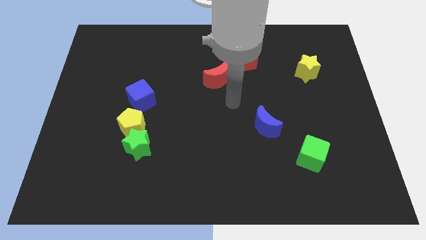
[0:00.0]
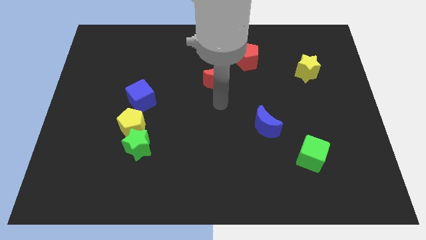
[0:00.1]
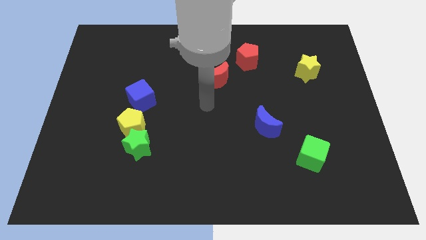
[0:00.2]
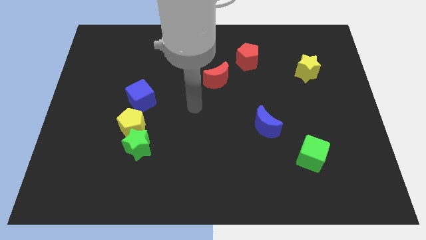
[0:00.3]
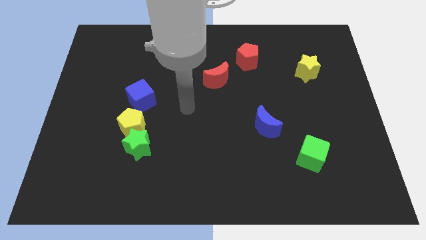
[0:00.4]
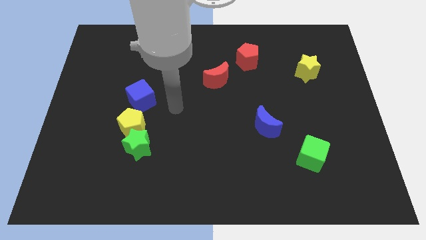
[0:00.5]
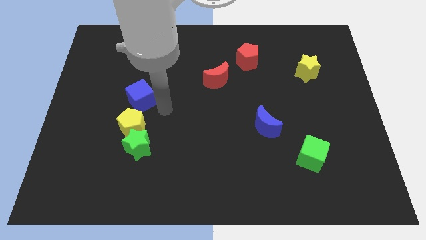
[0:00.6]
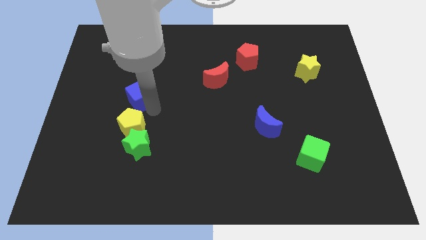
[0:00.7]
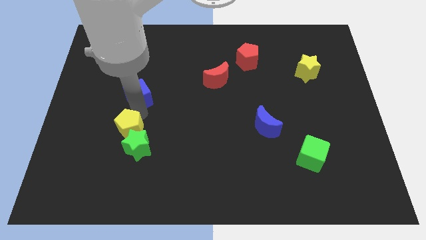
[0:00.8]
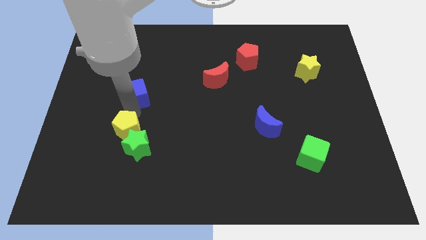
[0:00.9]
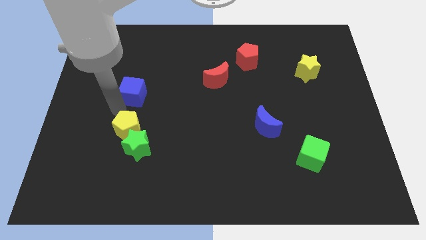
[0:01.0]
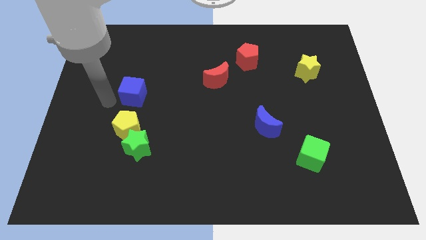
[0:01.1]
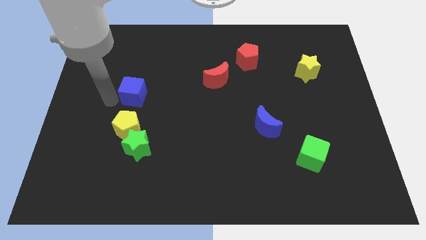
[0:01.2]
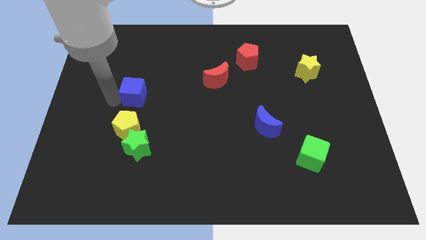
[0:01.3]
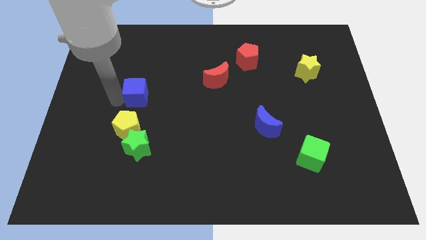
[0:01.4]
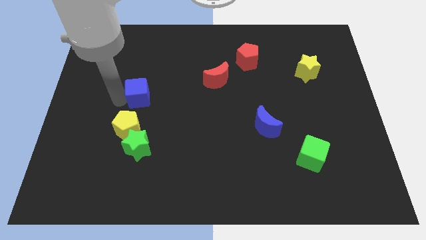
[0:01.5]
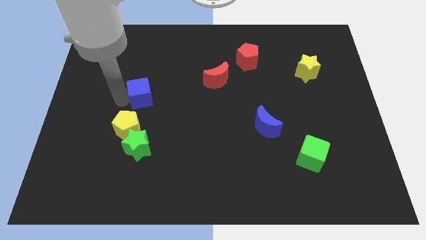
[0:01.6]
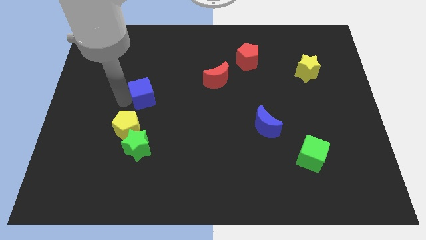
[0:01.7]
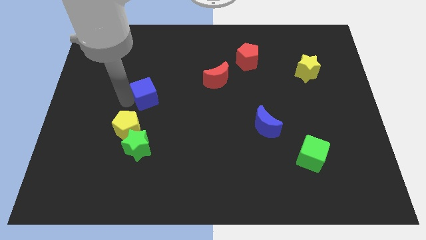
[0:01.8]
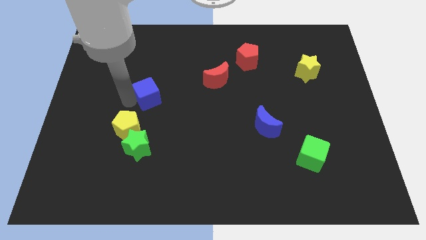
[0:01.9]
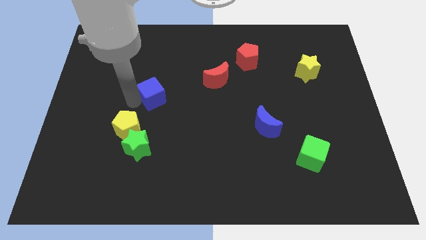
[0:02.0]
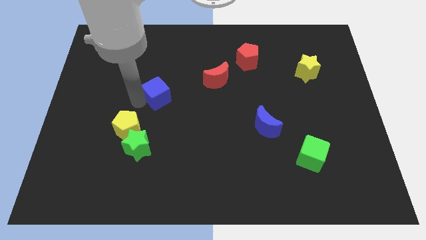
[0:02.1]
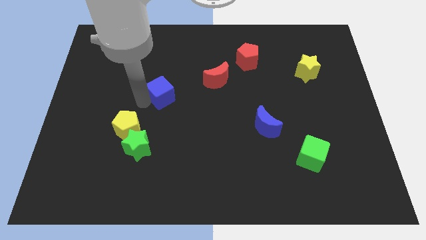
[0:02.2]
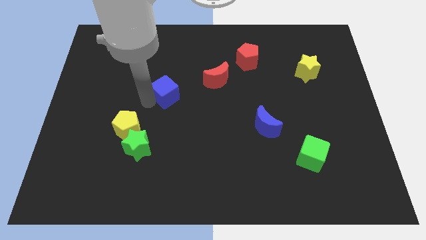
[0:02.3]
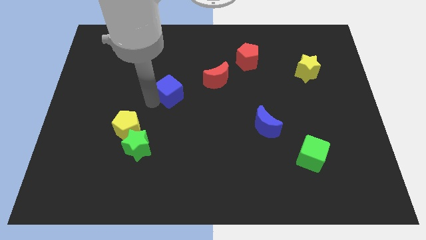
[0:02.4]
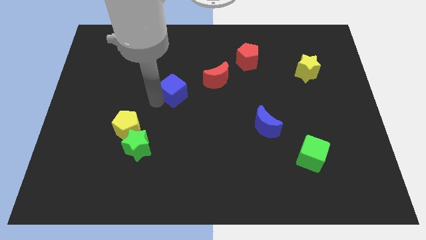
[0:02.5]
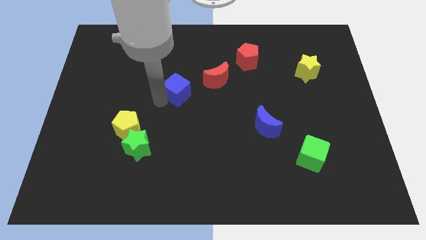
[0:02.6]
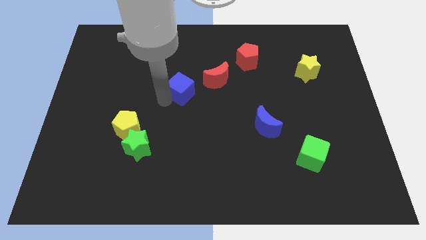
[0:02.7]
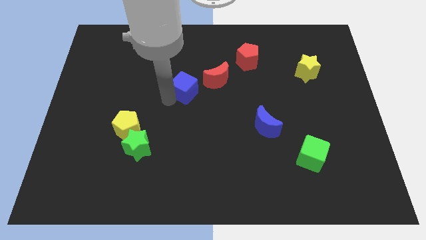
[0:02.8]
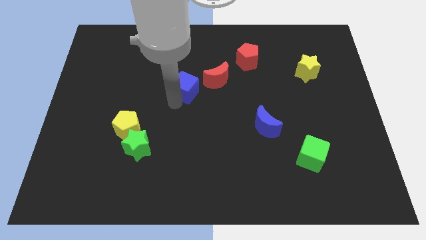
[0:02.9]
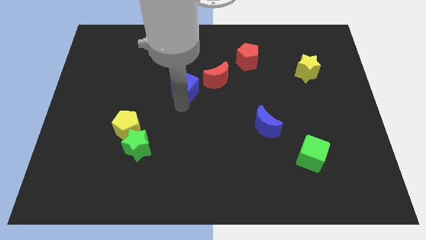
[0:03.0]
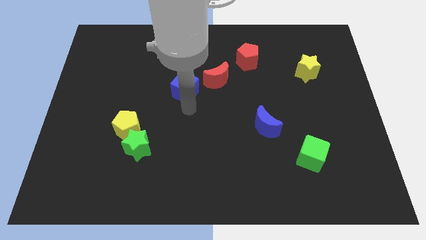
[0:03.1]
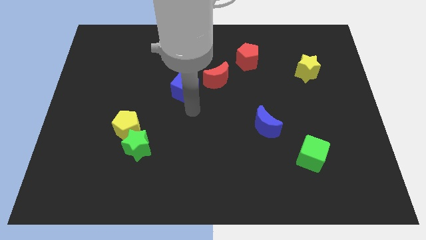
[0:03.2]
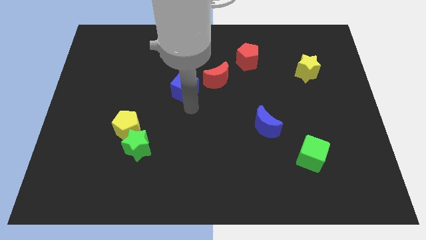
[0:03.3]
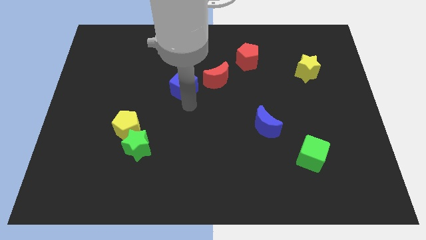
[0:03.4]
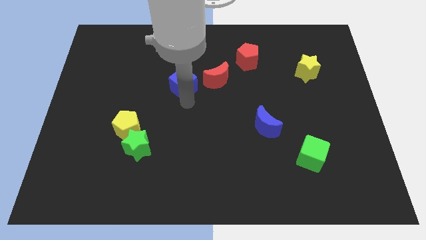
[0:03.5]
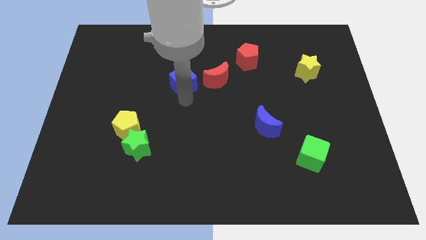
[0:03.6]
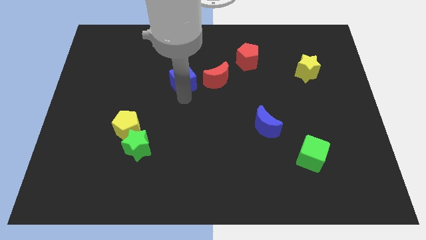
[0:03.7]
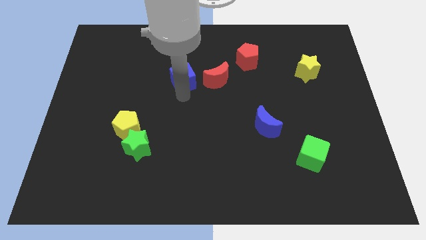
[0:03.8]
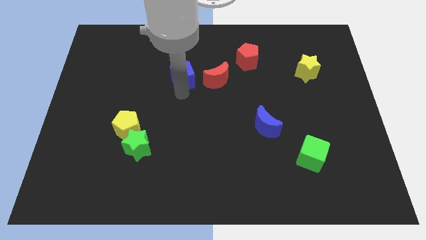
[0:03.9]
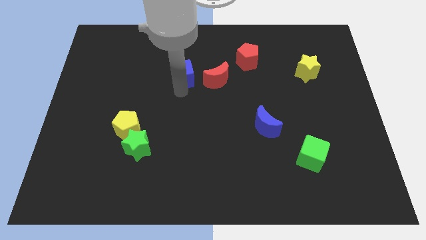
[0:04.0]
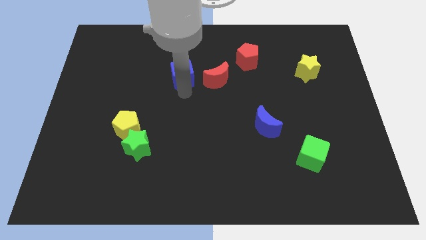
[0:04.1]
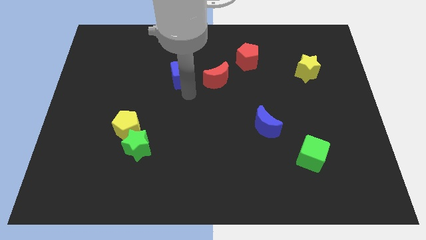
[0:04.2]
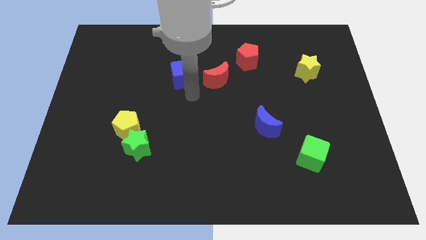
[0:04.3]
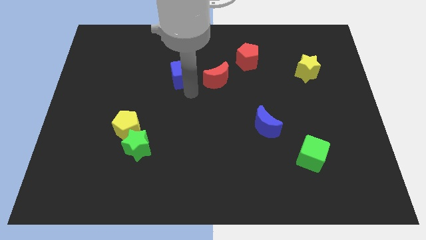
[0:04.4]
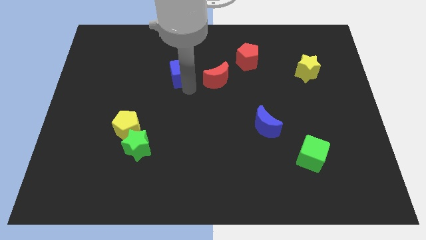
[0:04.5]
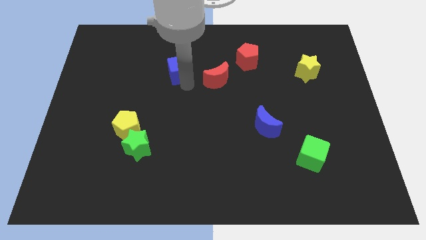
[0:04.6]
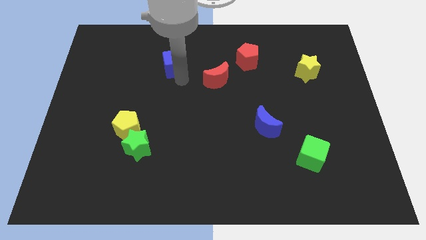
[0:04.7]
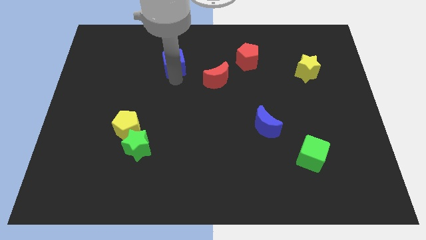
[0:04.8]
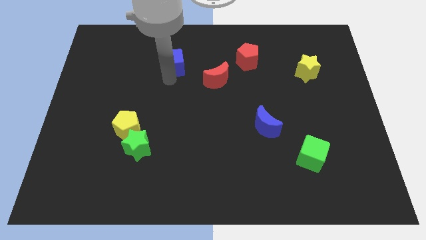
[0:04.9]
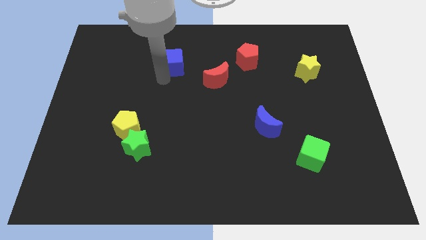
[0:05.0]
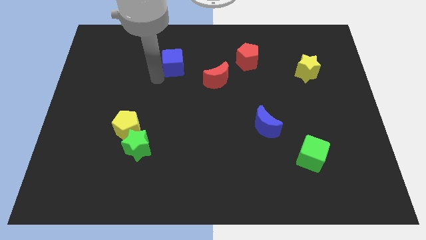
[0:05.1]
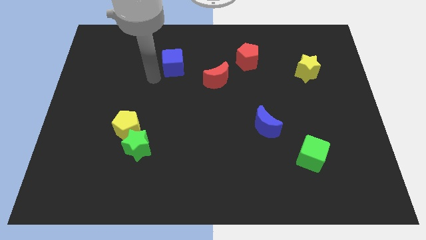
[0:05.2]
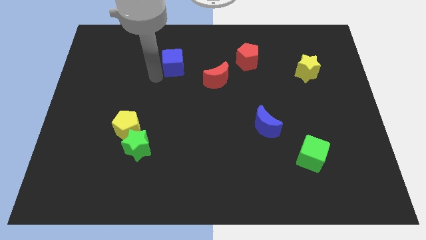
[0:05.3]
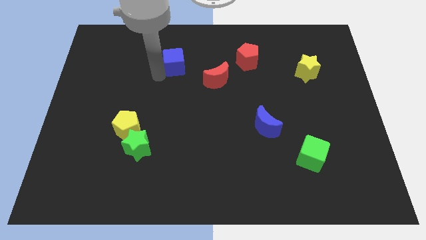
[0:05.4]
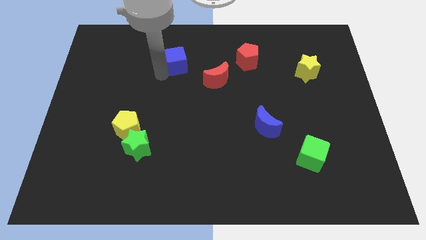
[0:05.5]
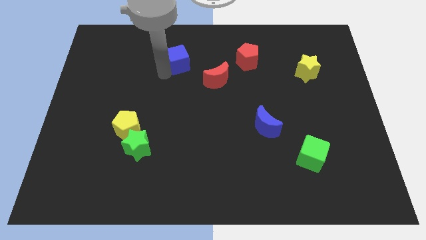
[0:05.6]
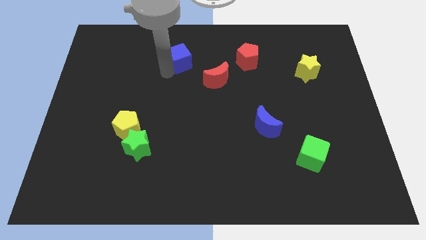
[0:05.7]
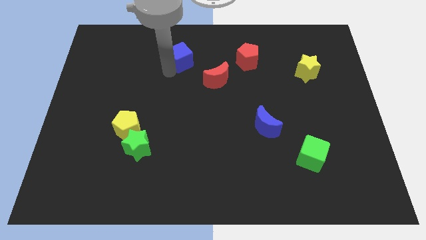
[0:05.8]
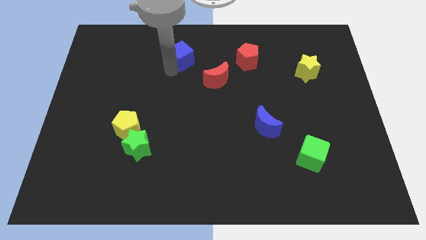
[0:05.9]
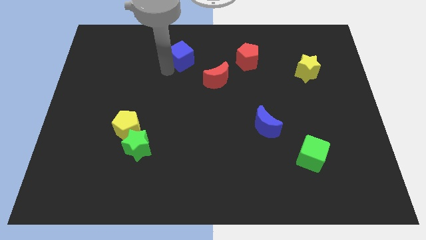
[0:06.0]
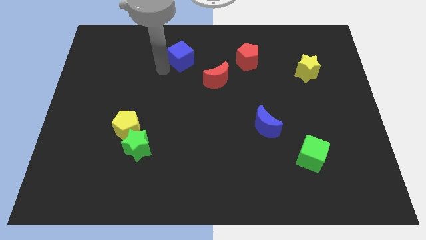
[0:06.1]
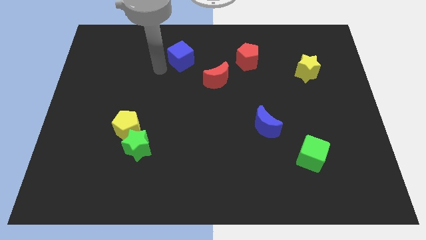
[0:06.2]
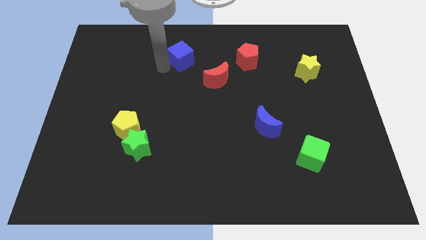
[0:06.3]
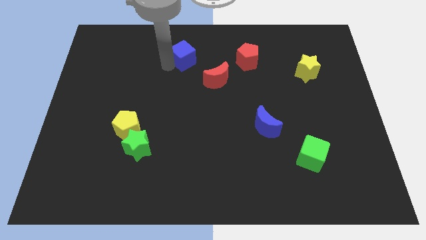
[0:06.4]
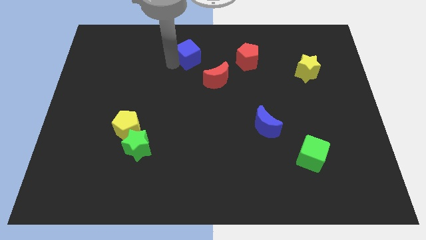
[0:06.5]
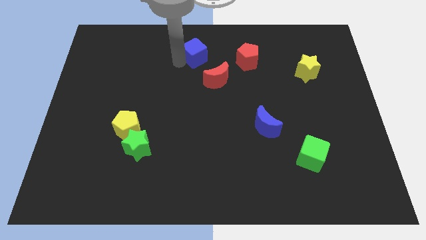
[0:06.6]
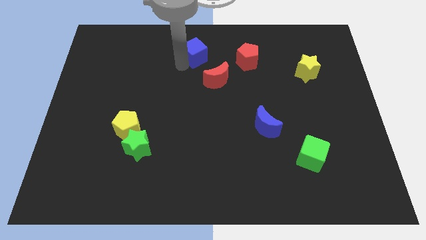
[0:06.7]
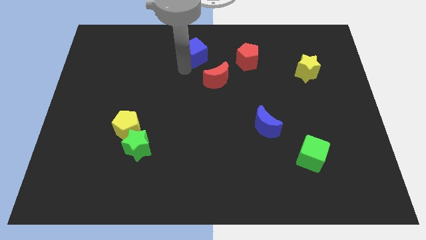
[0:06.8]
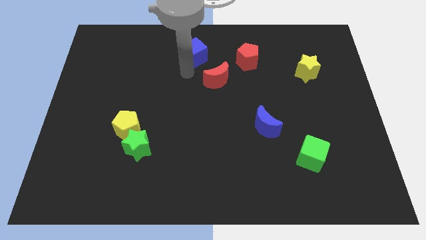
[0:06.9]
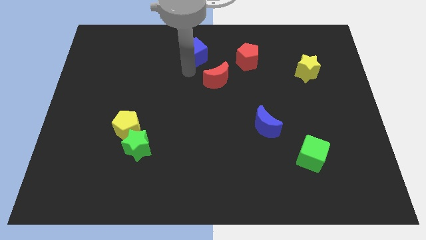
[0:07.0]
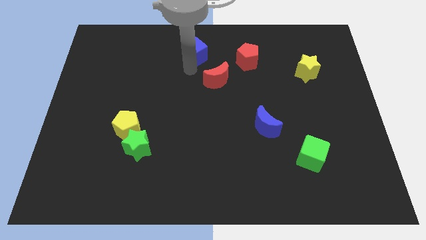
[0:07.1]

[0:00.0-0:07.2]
slide the blue cube to the top
